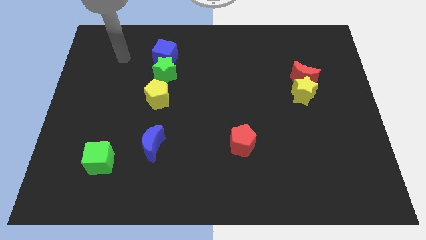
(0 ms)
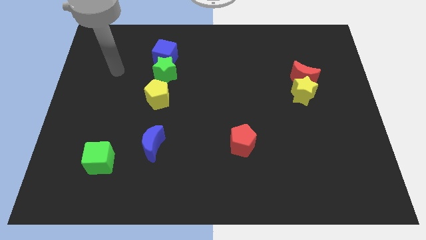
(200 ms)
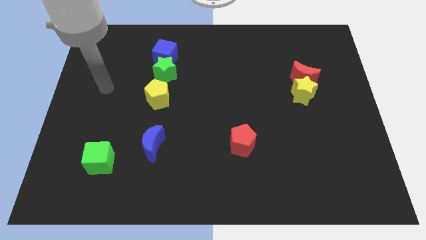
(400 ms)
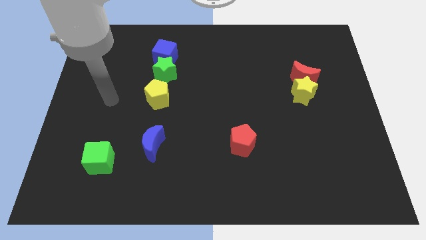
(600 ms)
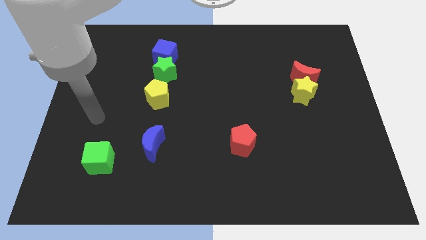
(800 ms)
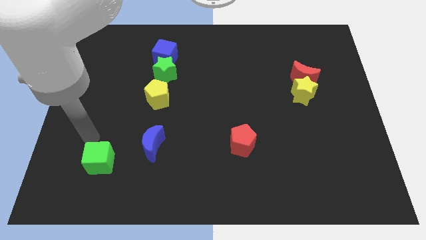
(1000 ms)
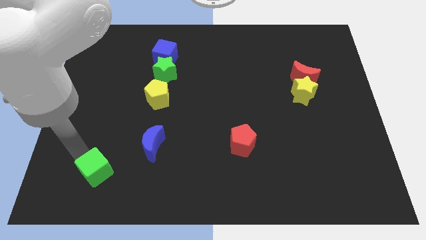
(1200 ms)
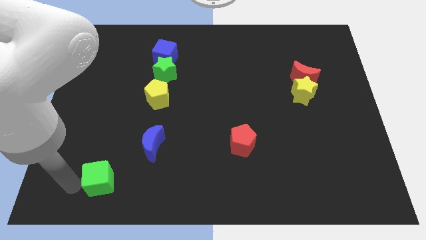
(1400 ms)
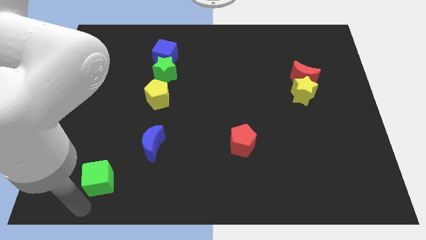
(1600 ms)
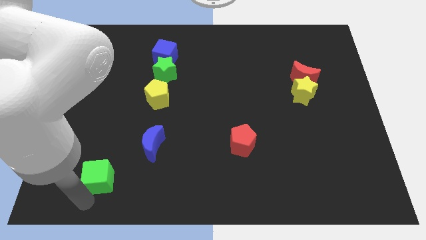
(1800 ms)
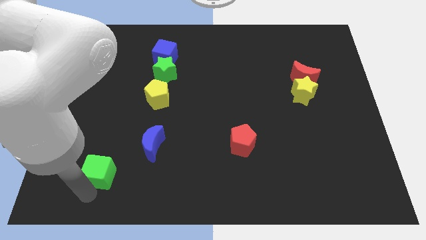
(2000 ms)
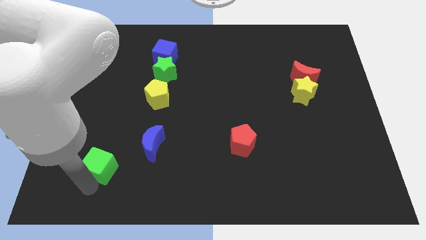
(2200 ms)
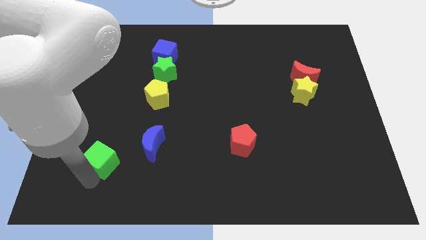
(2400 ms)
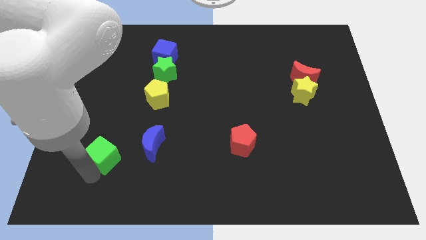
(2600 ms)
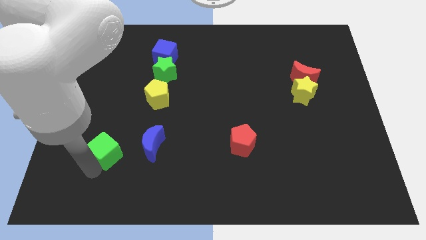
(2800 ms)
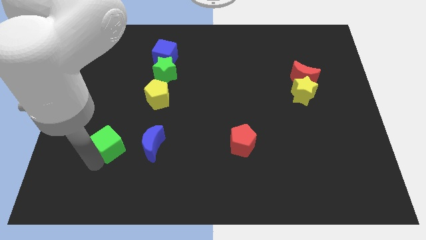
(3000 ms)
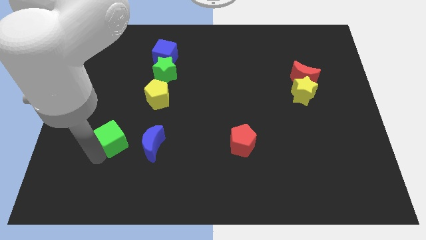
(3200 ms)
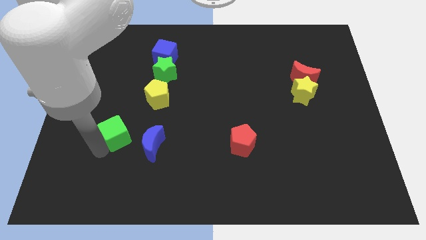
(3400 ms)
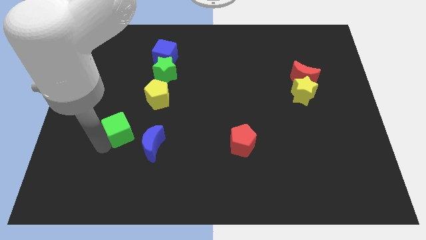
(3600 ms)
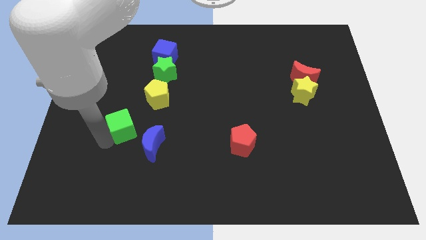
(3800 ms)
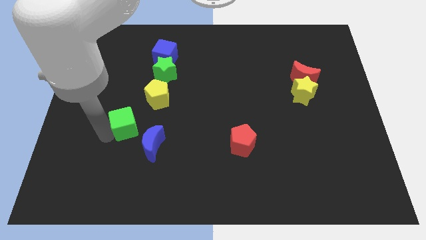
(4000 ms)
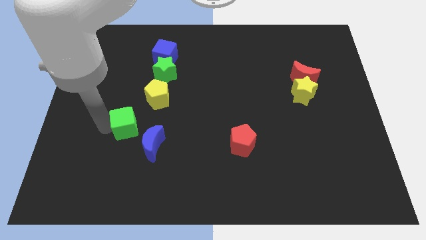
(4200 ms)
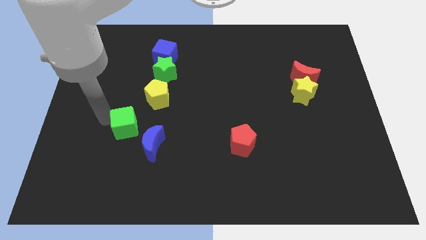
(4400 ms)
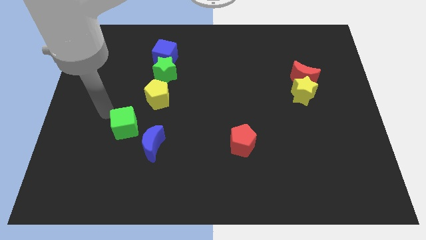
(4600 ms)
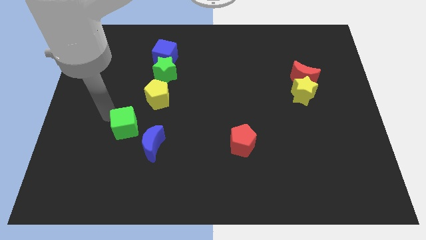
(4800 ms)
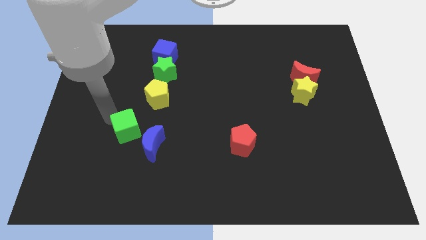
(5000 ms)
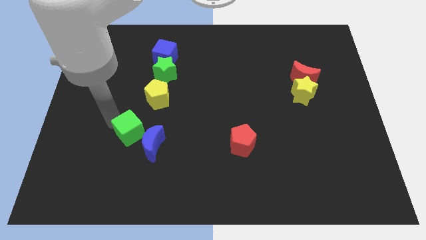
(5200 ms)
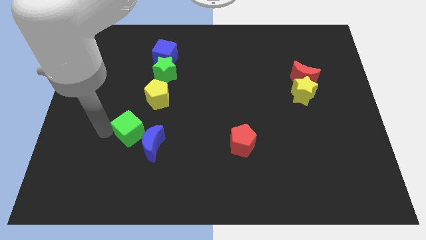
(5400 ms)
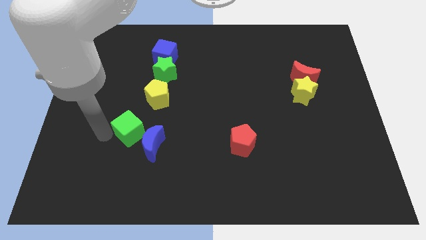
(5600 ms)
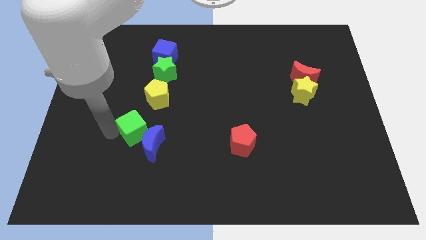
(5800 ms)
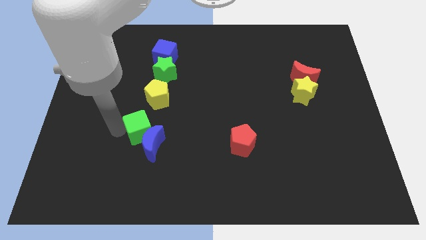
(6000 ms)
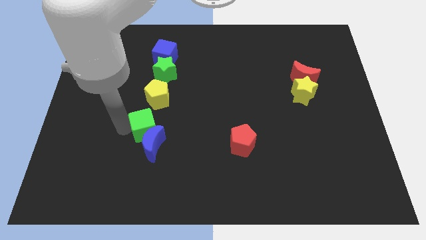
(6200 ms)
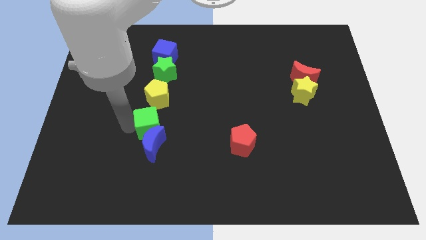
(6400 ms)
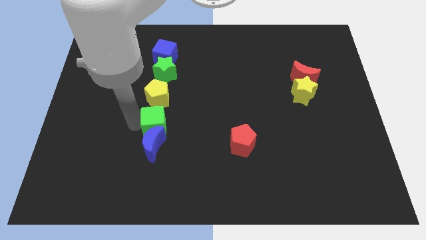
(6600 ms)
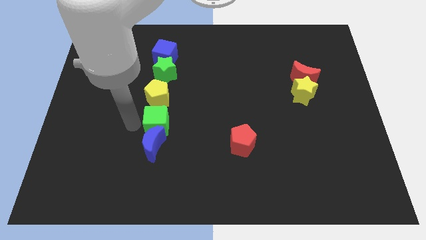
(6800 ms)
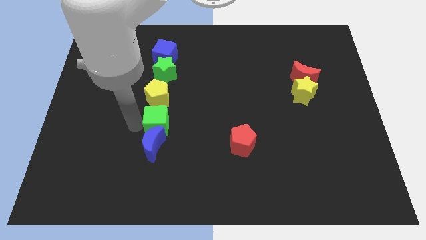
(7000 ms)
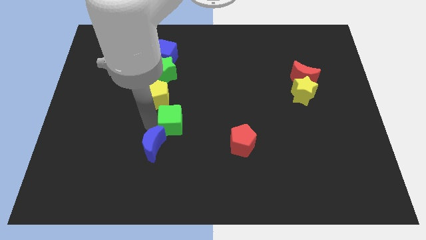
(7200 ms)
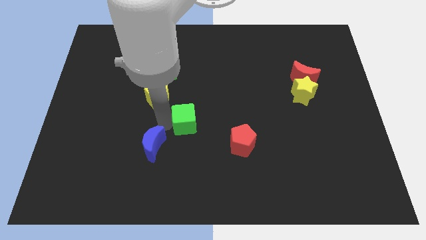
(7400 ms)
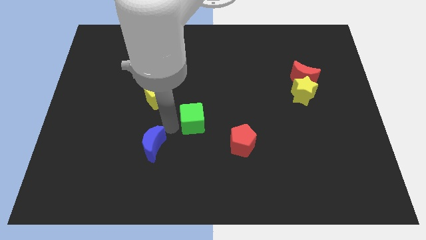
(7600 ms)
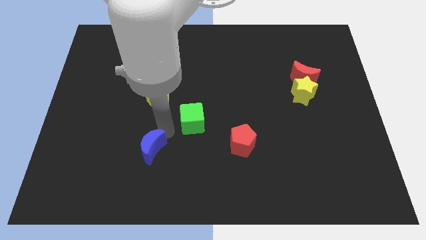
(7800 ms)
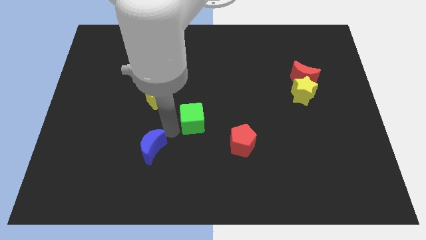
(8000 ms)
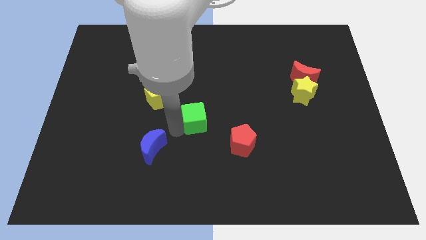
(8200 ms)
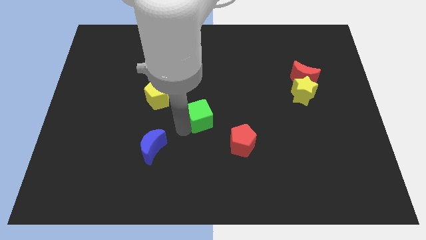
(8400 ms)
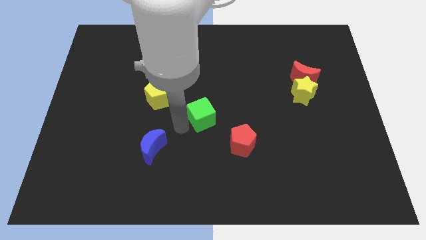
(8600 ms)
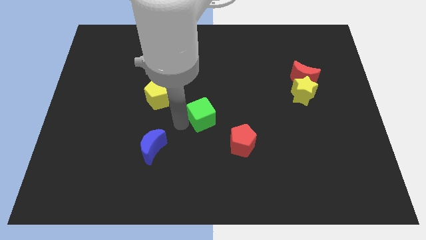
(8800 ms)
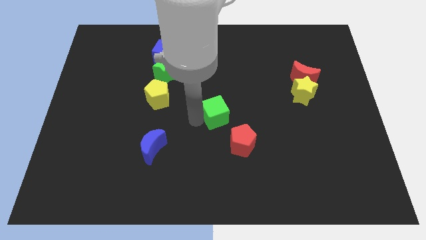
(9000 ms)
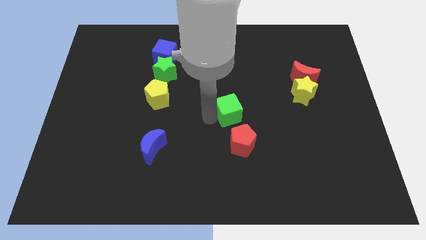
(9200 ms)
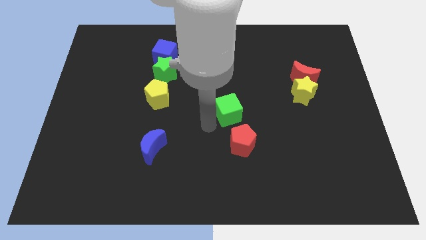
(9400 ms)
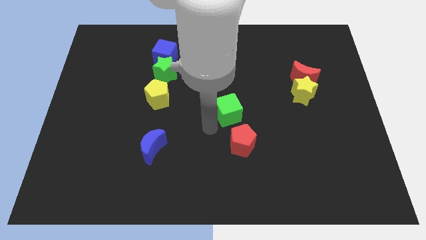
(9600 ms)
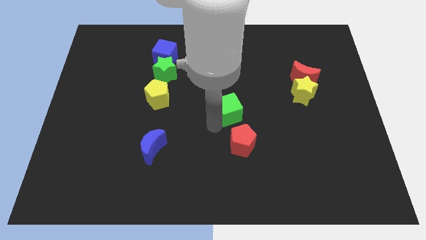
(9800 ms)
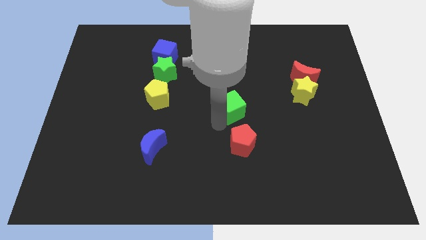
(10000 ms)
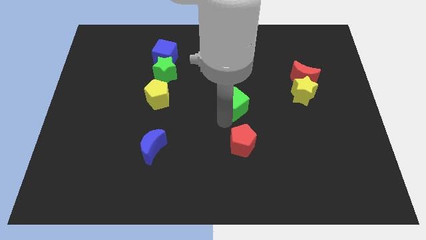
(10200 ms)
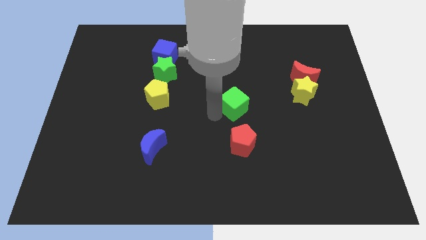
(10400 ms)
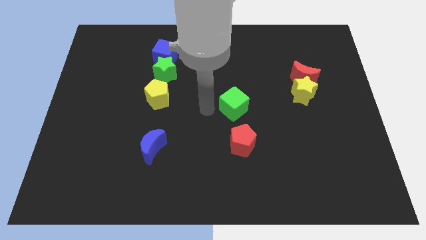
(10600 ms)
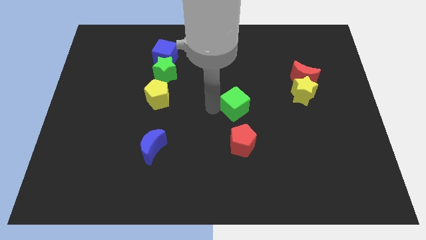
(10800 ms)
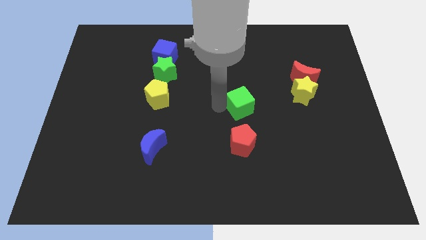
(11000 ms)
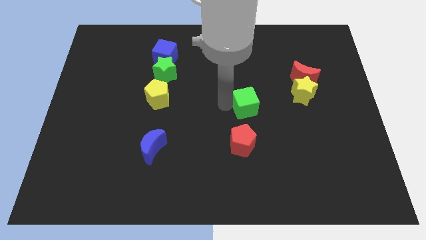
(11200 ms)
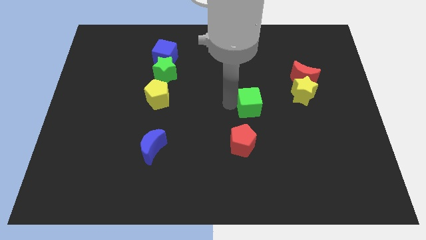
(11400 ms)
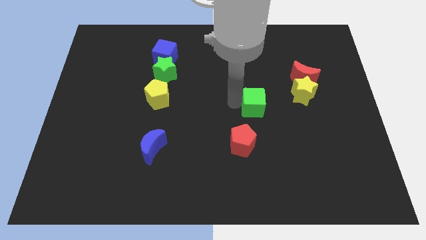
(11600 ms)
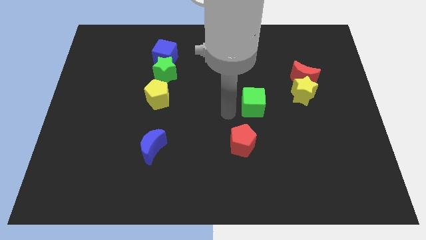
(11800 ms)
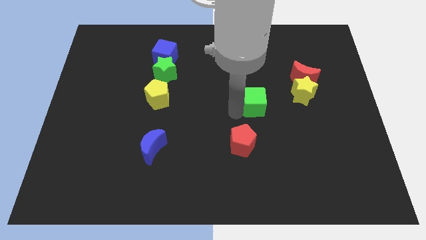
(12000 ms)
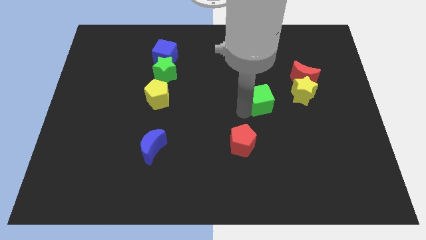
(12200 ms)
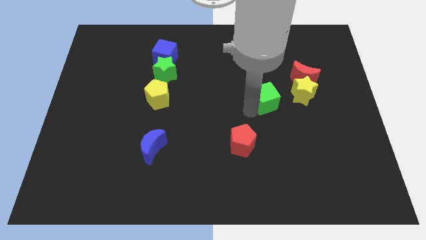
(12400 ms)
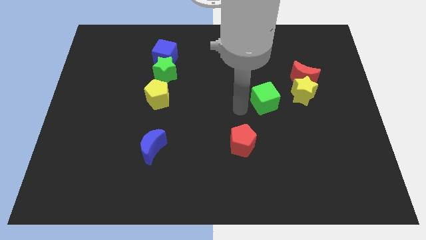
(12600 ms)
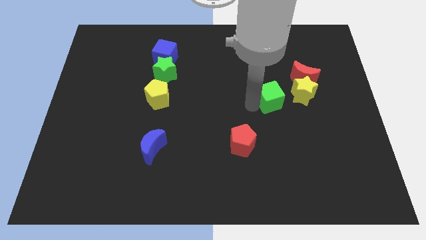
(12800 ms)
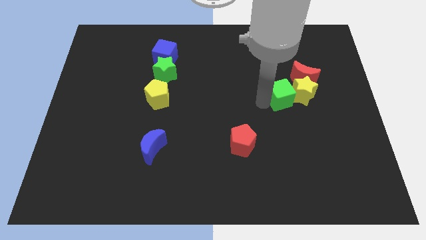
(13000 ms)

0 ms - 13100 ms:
put the green cube to the yellow star

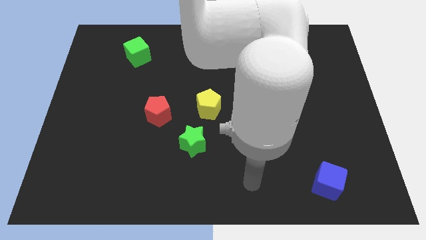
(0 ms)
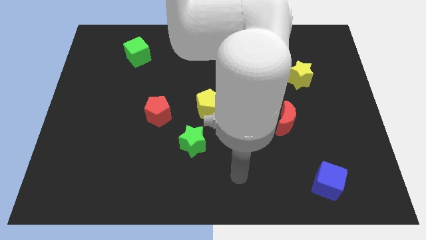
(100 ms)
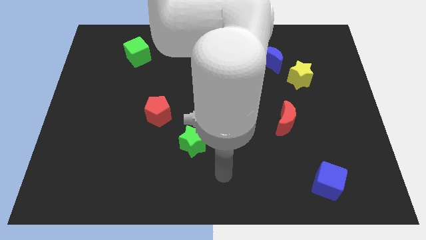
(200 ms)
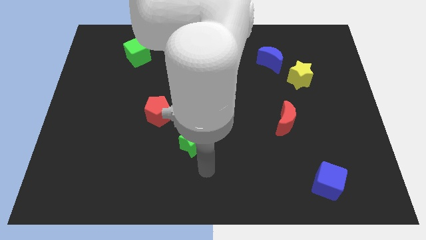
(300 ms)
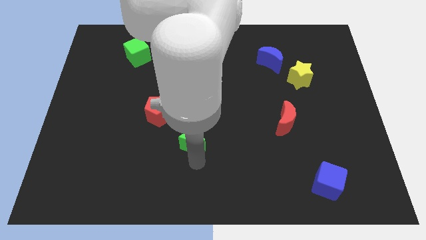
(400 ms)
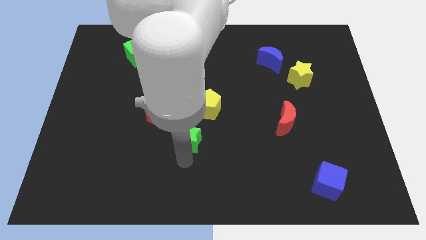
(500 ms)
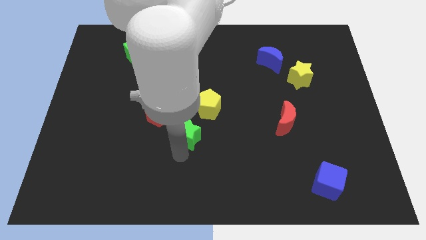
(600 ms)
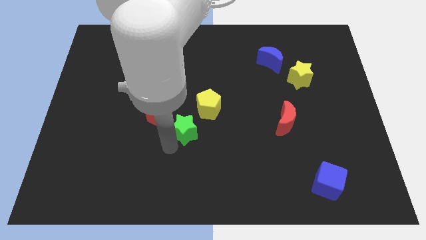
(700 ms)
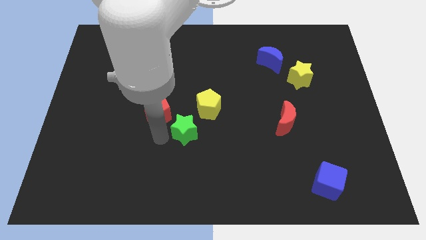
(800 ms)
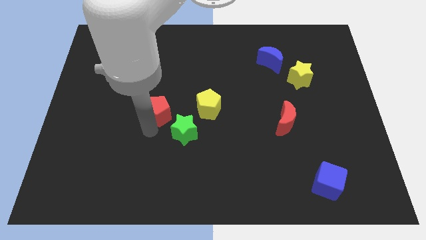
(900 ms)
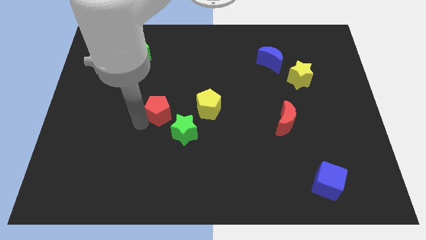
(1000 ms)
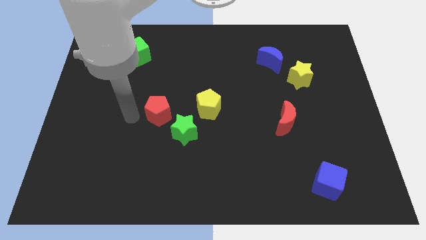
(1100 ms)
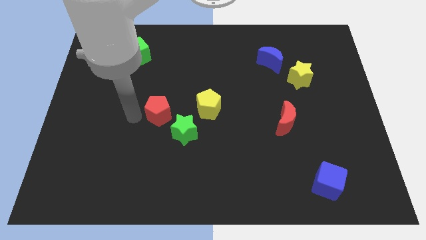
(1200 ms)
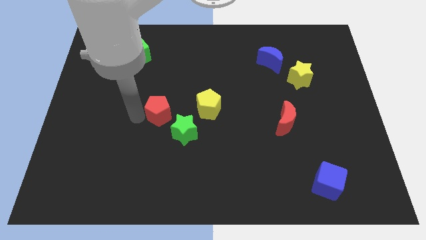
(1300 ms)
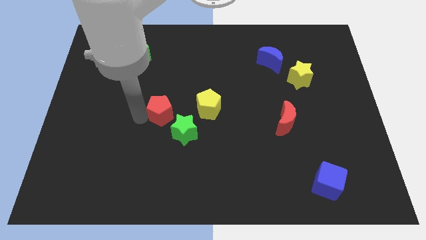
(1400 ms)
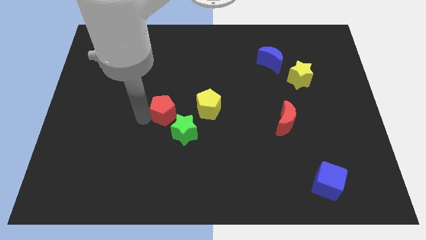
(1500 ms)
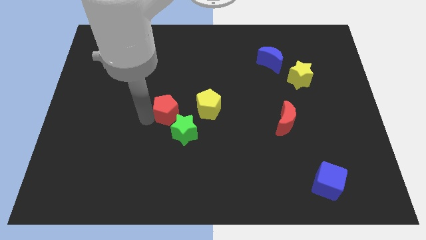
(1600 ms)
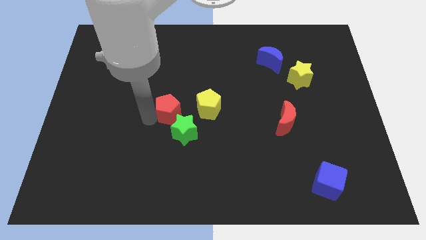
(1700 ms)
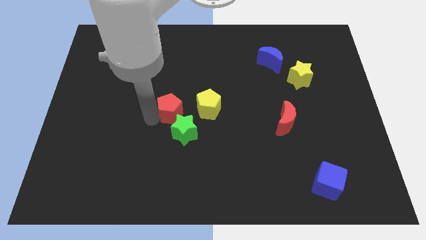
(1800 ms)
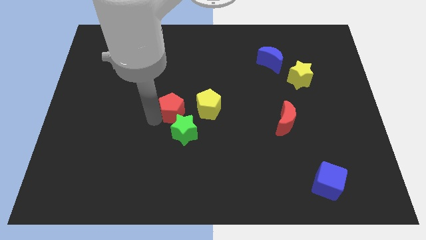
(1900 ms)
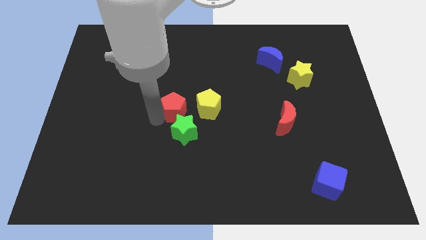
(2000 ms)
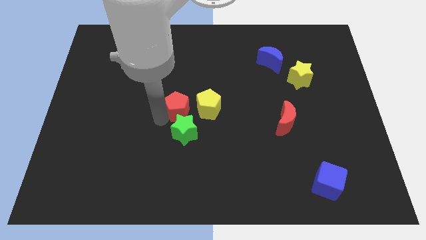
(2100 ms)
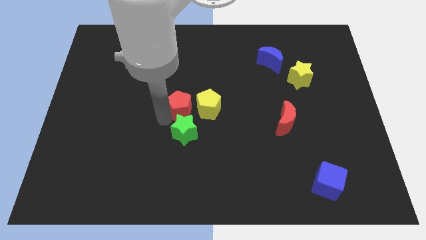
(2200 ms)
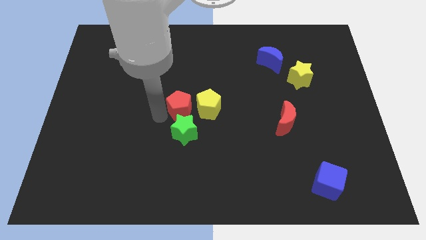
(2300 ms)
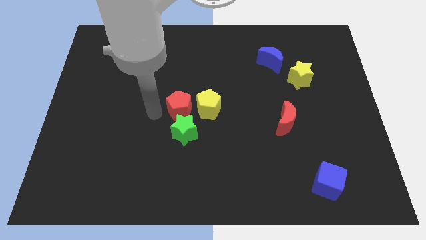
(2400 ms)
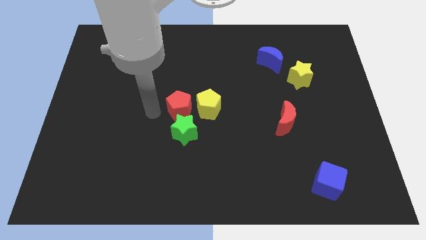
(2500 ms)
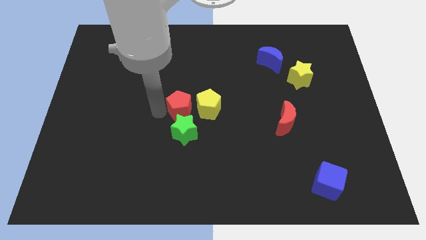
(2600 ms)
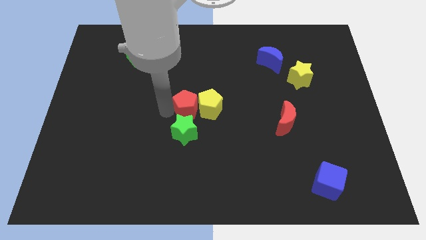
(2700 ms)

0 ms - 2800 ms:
put the red pentagon towards the yellow pentagon
